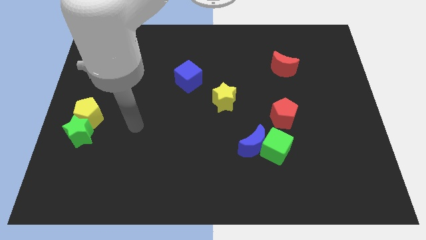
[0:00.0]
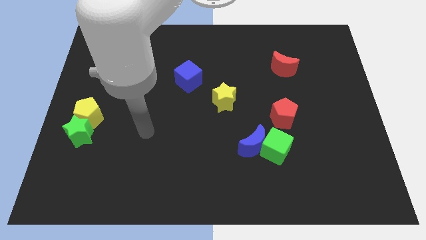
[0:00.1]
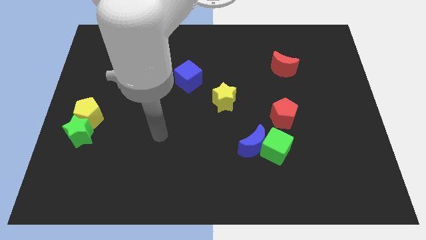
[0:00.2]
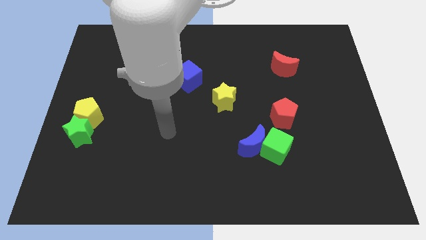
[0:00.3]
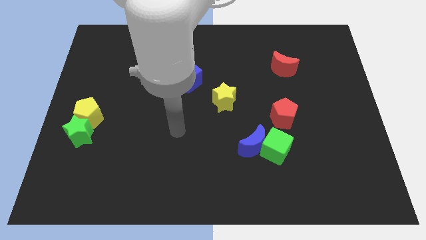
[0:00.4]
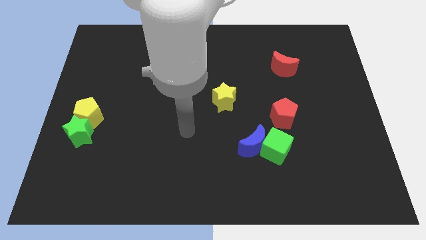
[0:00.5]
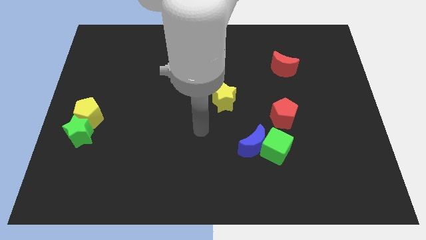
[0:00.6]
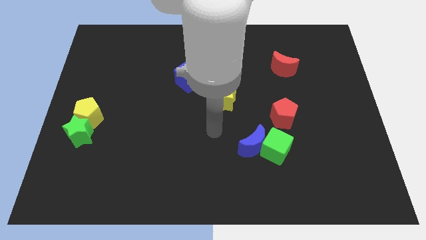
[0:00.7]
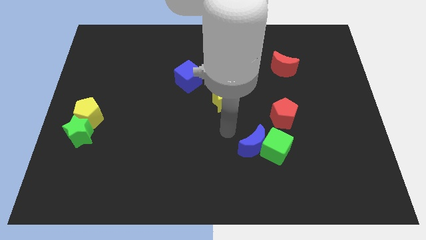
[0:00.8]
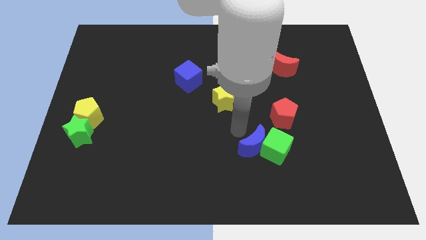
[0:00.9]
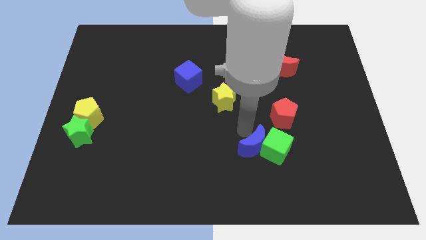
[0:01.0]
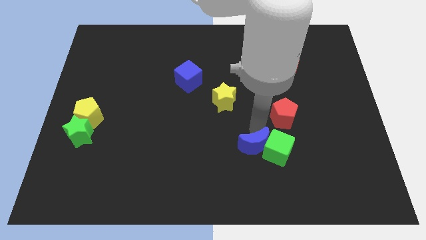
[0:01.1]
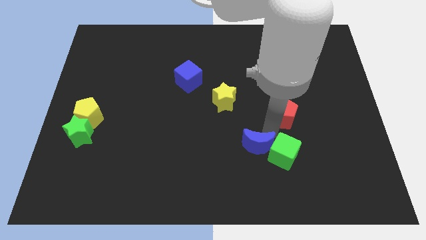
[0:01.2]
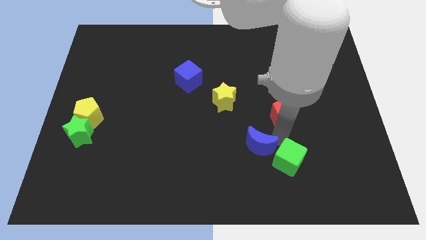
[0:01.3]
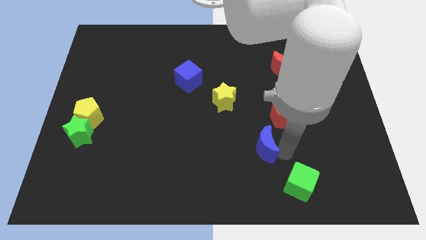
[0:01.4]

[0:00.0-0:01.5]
pull the blue moon apart from the green cube

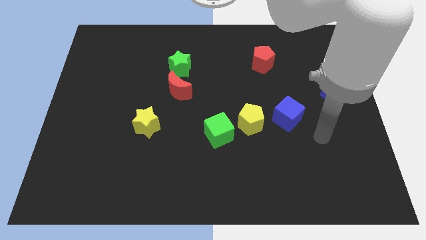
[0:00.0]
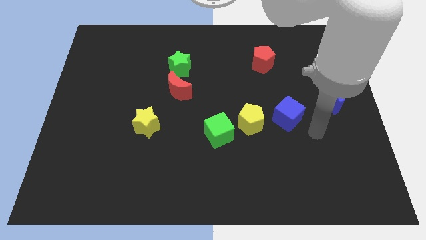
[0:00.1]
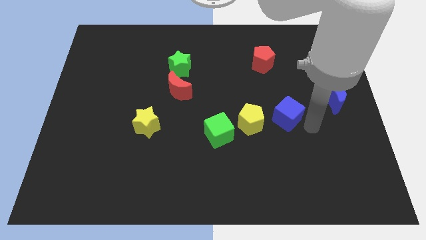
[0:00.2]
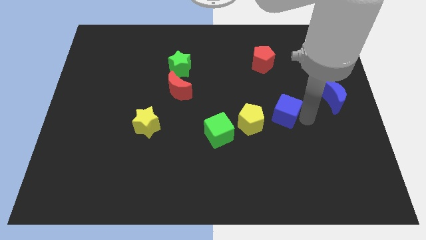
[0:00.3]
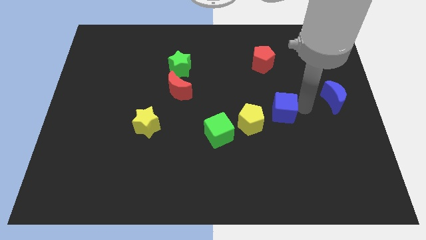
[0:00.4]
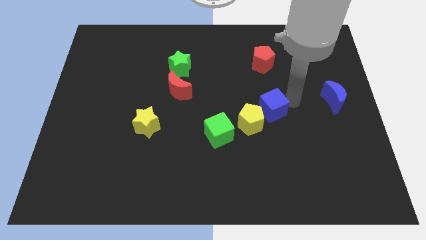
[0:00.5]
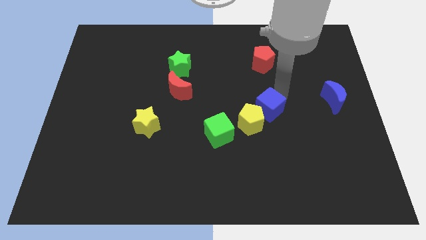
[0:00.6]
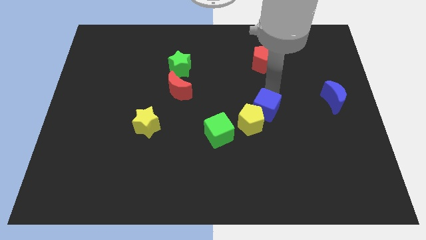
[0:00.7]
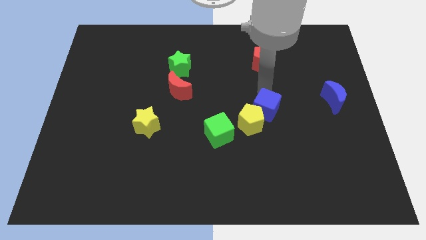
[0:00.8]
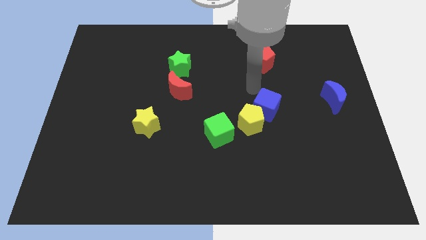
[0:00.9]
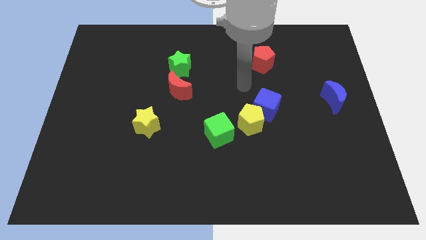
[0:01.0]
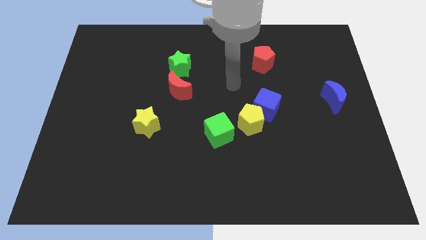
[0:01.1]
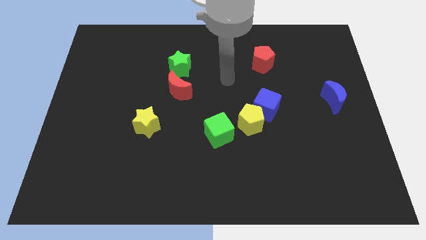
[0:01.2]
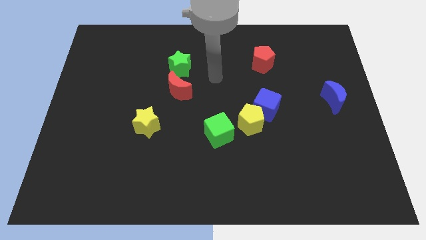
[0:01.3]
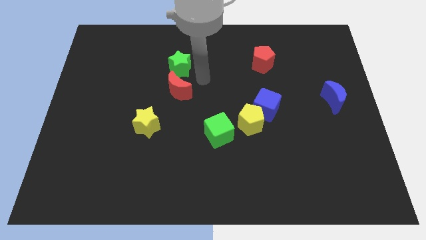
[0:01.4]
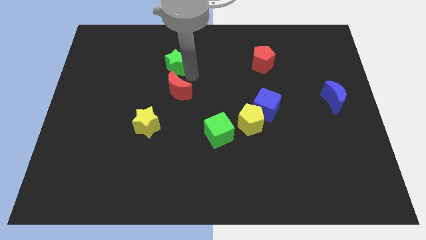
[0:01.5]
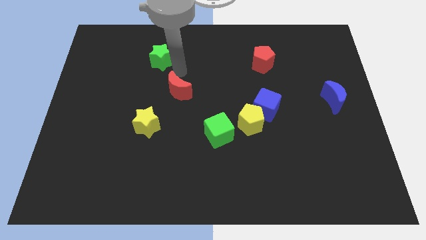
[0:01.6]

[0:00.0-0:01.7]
separate the red moon from the green star

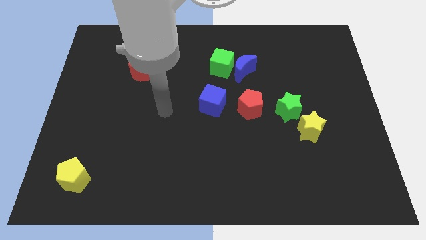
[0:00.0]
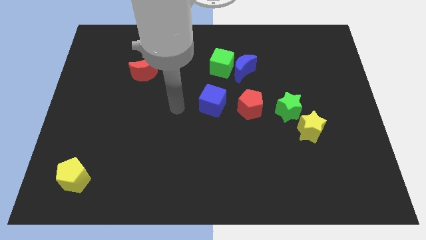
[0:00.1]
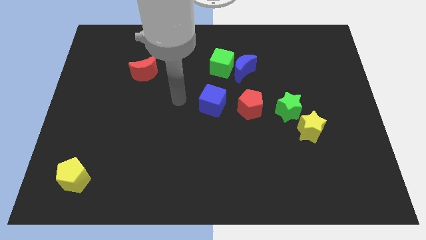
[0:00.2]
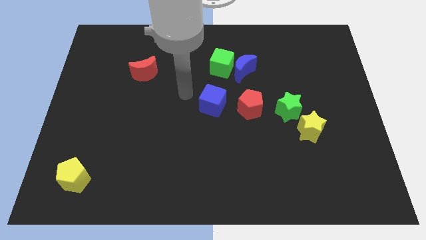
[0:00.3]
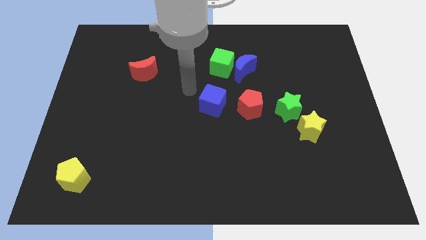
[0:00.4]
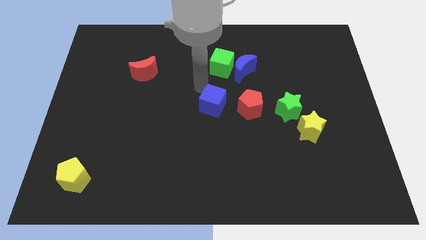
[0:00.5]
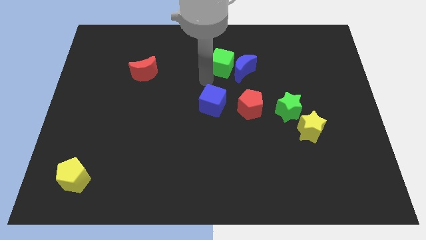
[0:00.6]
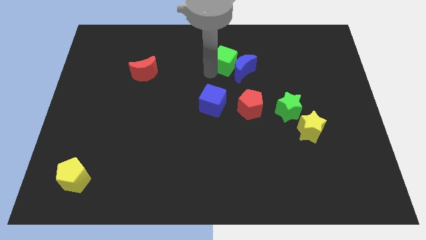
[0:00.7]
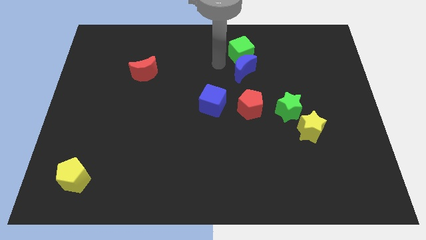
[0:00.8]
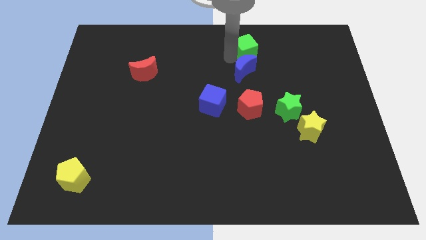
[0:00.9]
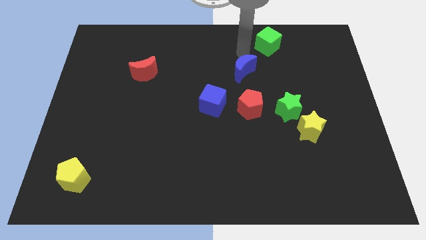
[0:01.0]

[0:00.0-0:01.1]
separate the blue moon from the green cube

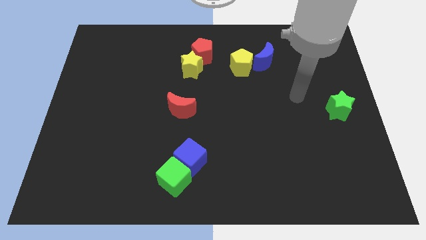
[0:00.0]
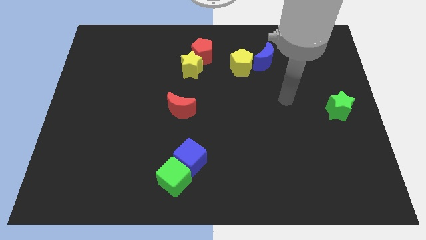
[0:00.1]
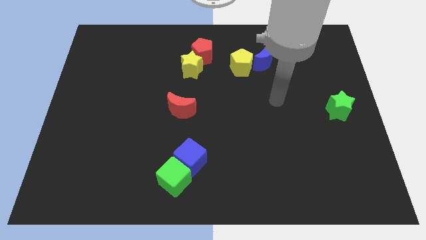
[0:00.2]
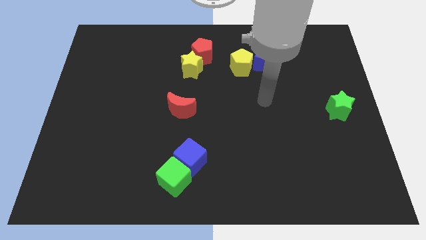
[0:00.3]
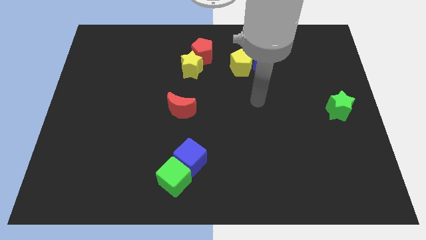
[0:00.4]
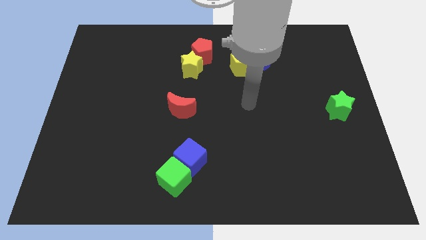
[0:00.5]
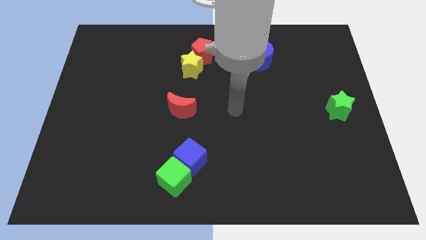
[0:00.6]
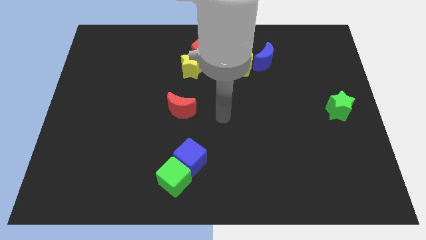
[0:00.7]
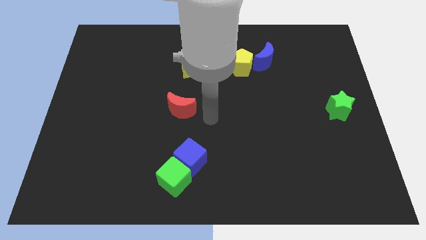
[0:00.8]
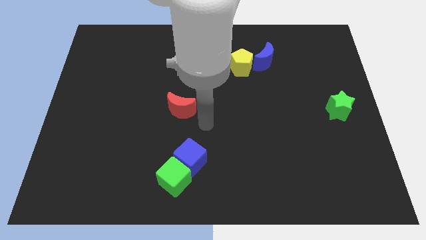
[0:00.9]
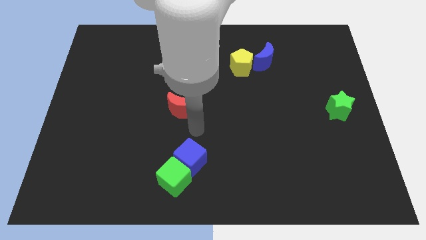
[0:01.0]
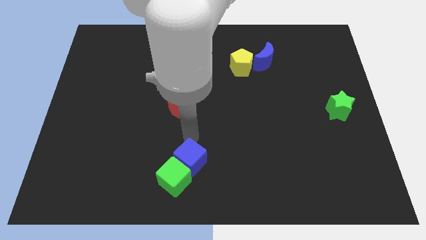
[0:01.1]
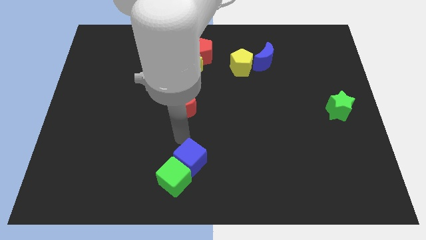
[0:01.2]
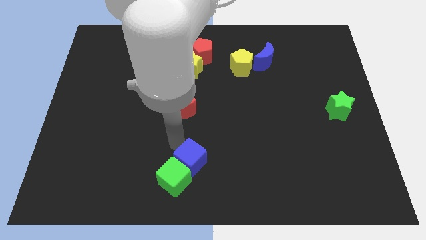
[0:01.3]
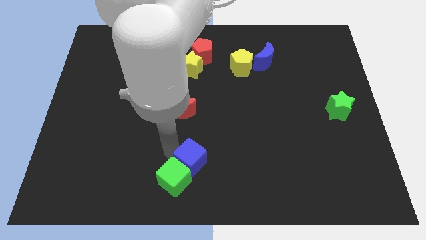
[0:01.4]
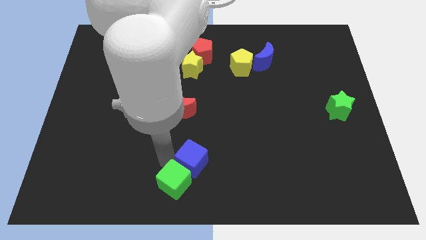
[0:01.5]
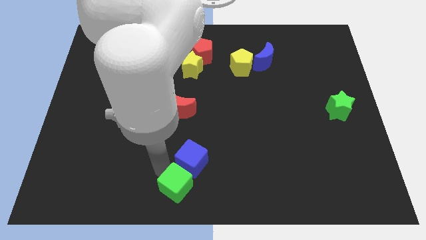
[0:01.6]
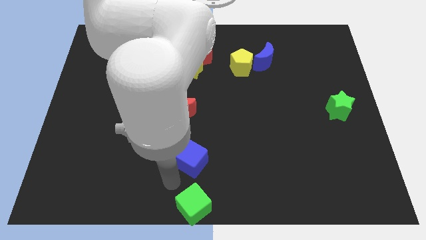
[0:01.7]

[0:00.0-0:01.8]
separate the blue cube from the green cube

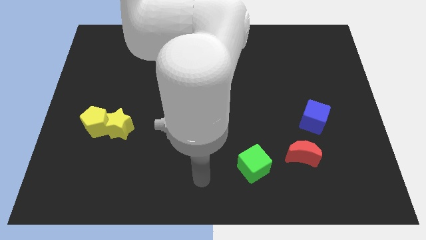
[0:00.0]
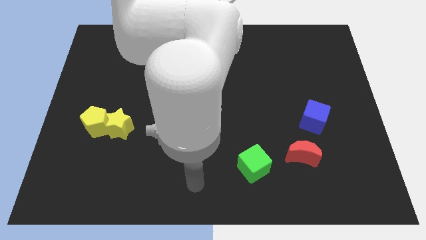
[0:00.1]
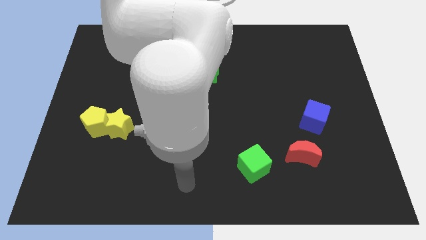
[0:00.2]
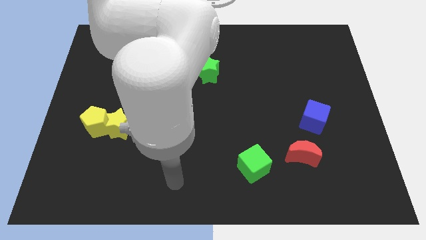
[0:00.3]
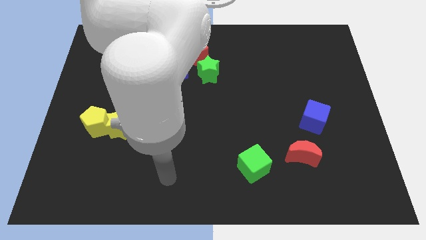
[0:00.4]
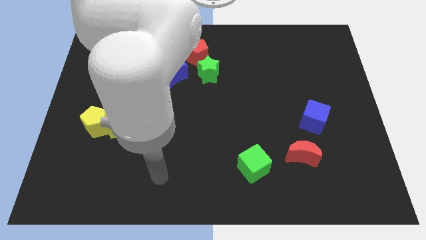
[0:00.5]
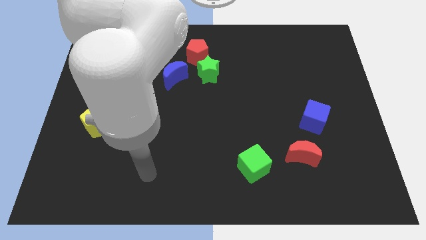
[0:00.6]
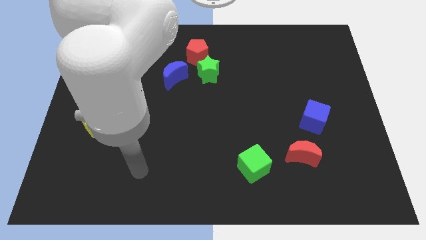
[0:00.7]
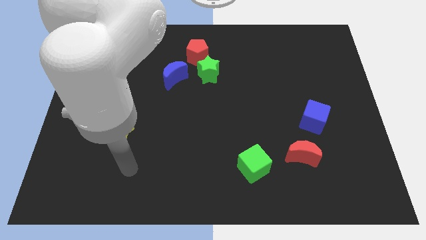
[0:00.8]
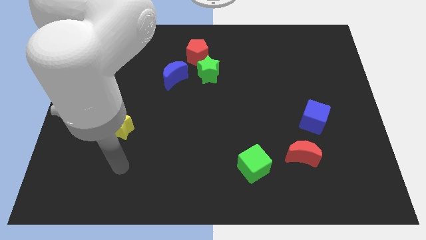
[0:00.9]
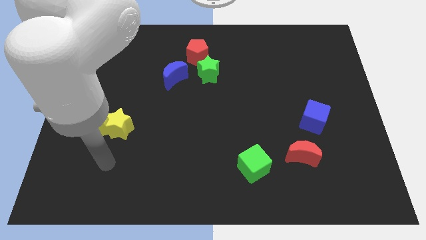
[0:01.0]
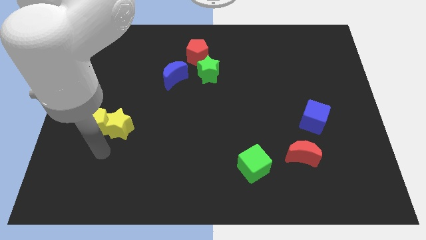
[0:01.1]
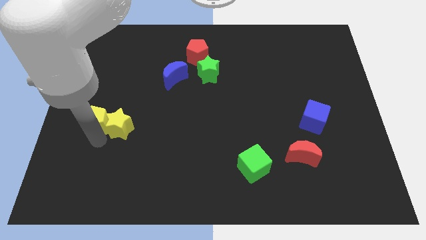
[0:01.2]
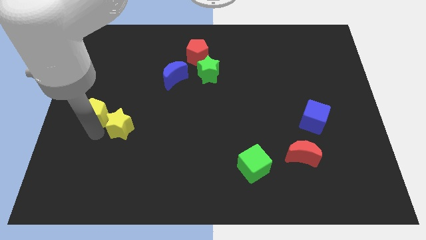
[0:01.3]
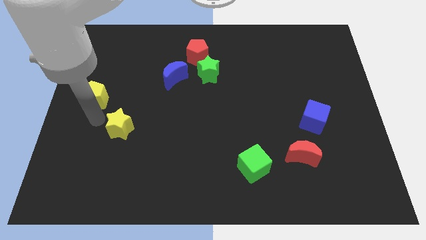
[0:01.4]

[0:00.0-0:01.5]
pull the yellow star apart from the yellow pentagon

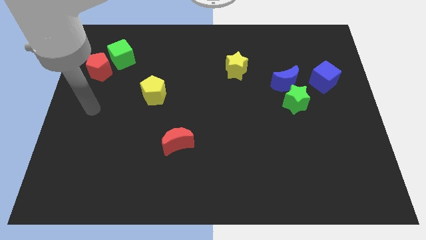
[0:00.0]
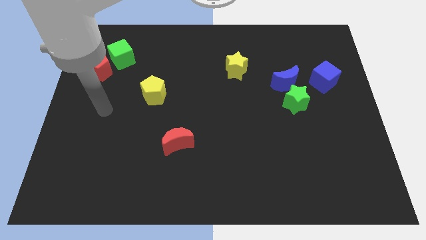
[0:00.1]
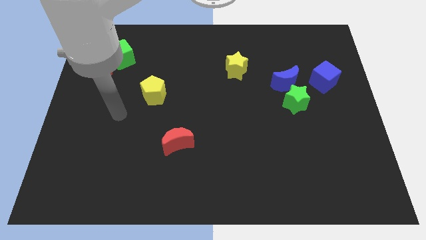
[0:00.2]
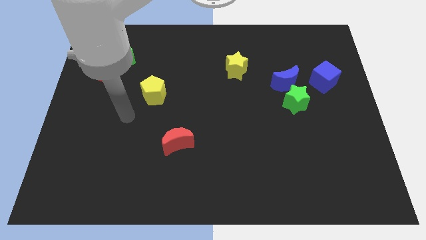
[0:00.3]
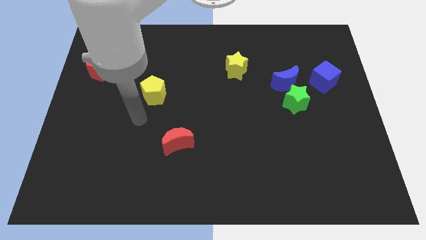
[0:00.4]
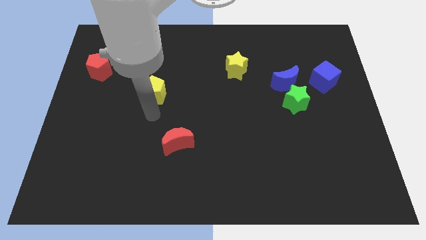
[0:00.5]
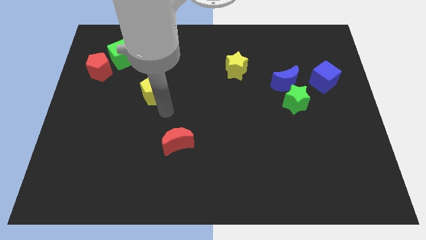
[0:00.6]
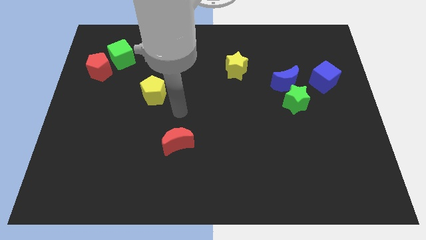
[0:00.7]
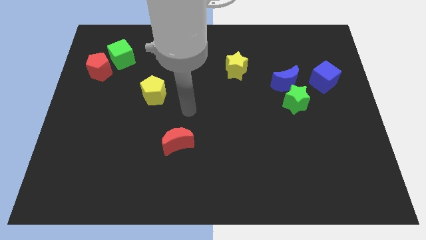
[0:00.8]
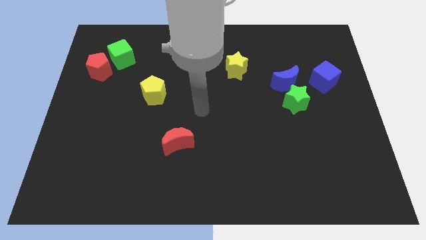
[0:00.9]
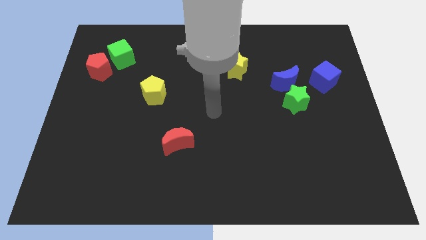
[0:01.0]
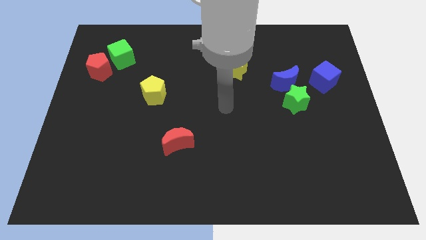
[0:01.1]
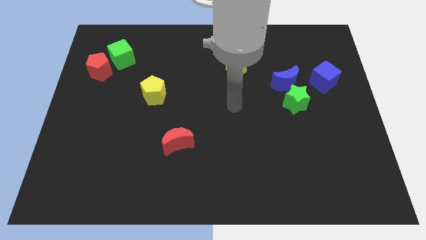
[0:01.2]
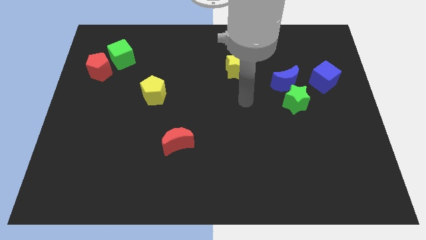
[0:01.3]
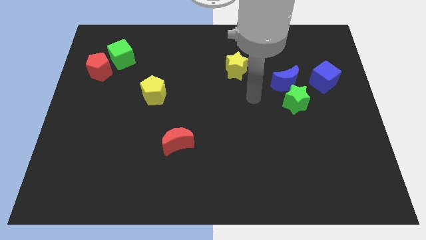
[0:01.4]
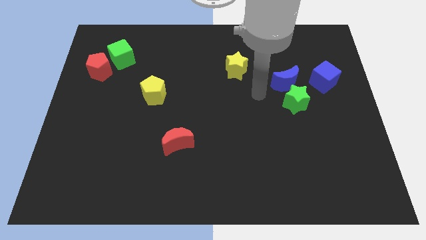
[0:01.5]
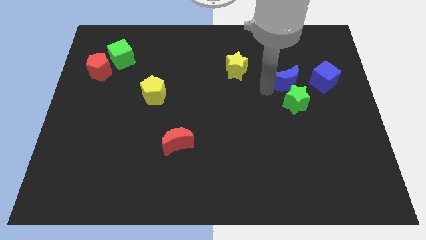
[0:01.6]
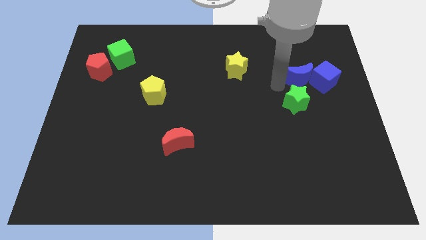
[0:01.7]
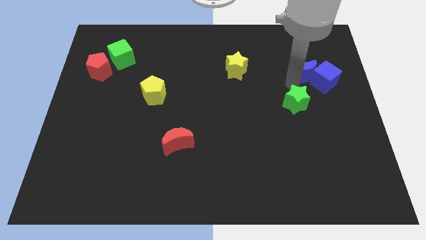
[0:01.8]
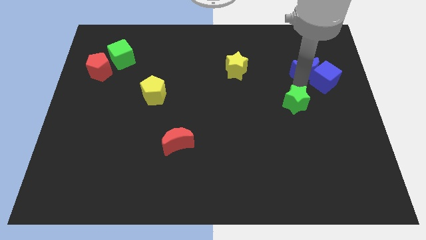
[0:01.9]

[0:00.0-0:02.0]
move the green star away from the blue moon
